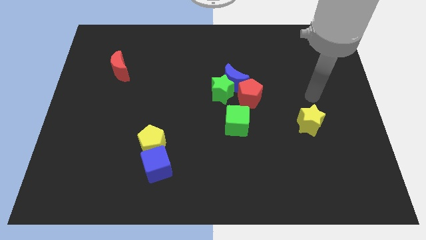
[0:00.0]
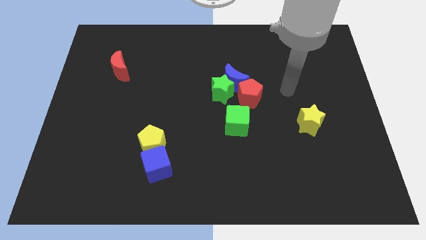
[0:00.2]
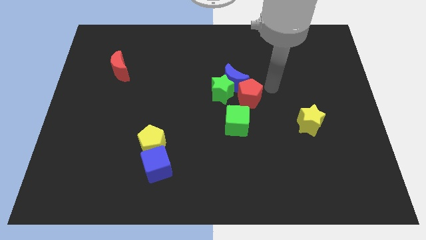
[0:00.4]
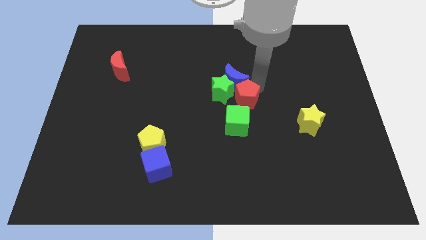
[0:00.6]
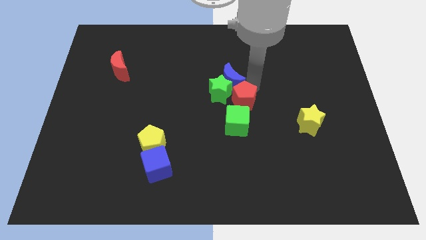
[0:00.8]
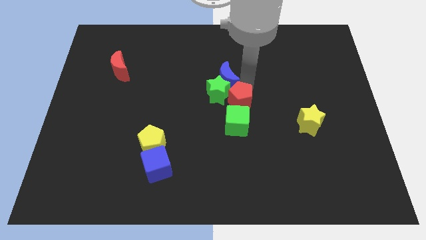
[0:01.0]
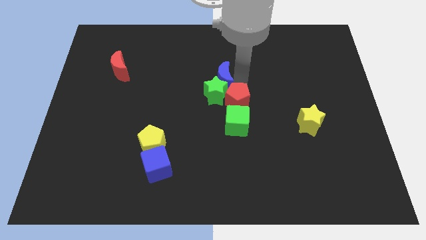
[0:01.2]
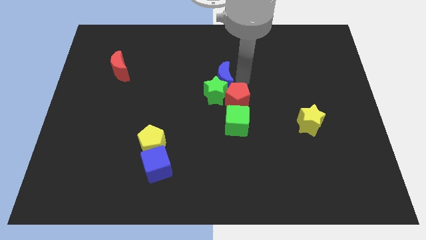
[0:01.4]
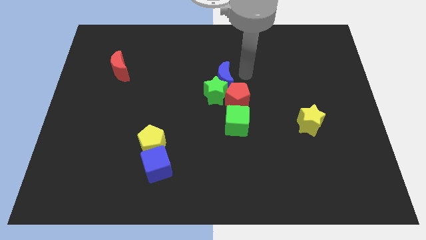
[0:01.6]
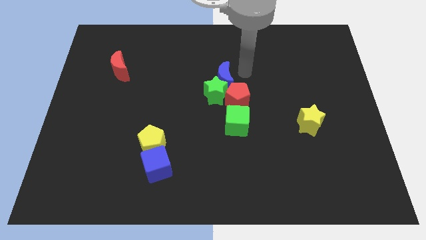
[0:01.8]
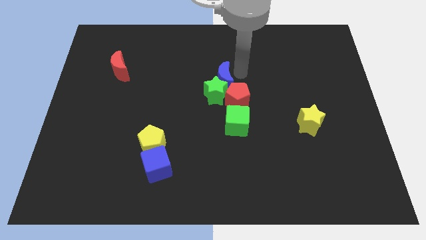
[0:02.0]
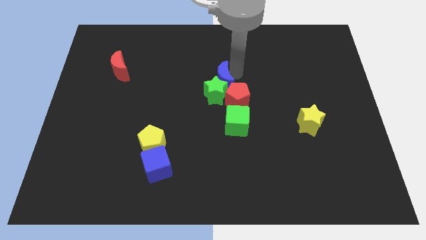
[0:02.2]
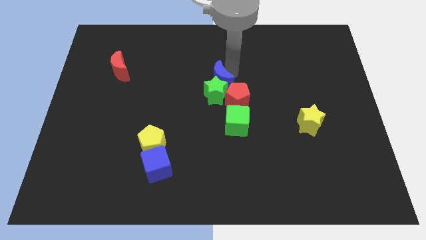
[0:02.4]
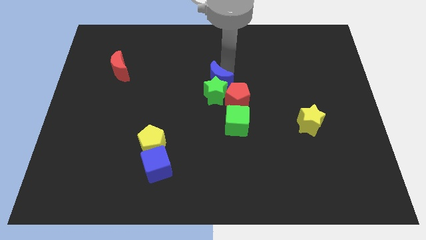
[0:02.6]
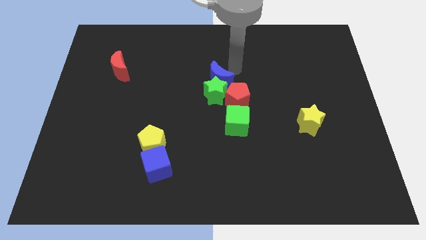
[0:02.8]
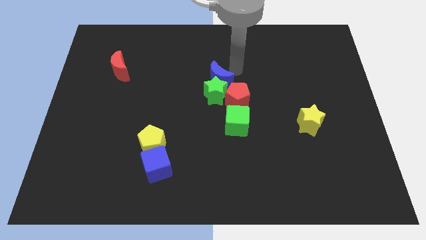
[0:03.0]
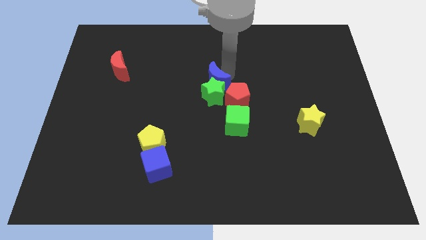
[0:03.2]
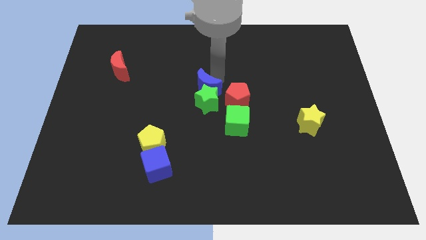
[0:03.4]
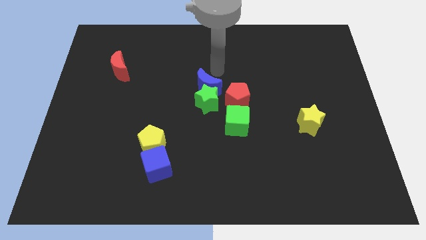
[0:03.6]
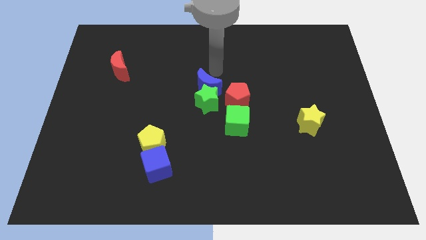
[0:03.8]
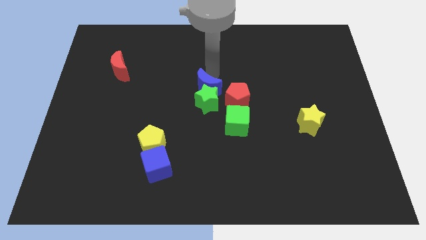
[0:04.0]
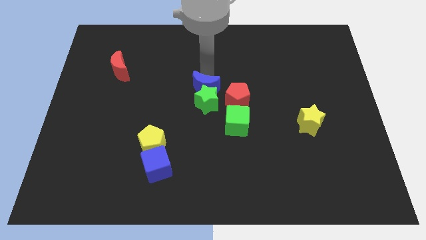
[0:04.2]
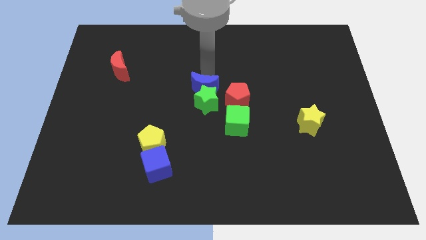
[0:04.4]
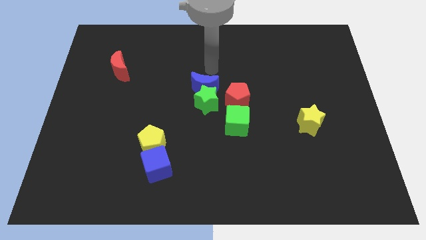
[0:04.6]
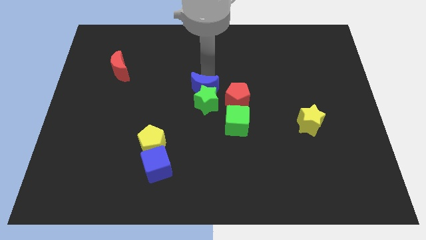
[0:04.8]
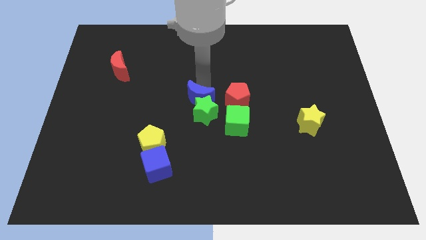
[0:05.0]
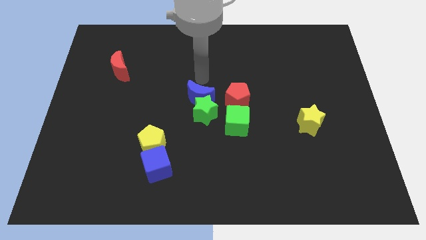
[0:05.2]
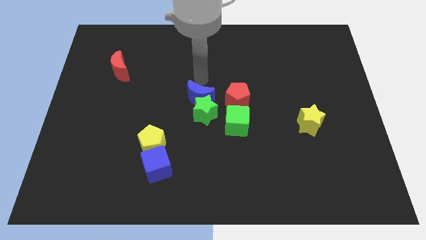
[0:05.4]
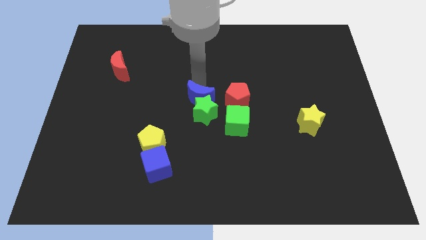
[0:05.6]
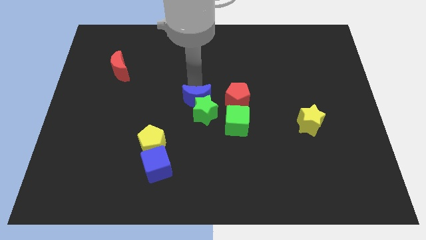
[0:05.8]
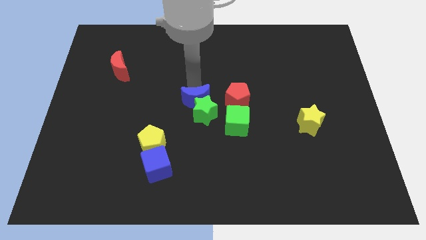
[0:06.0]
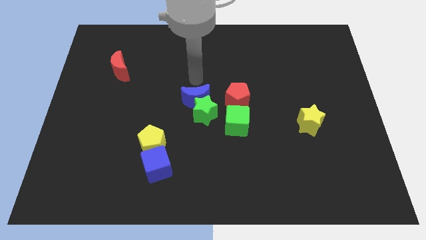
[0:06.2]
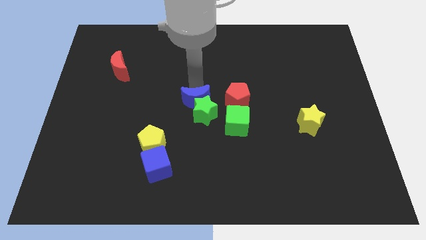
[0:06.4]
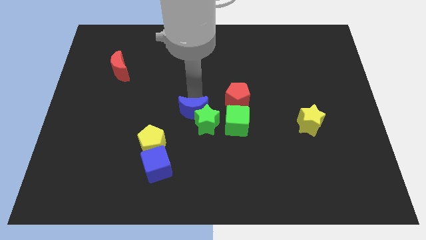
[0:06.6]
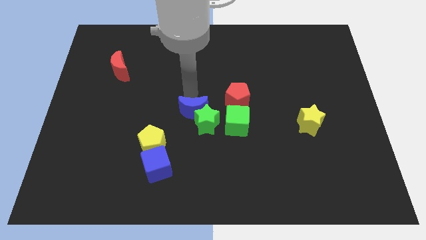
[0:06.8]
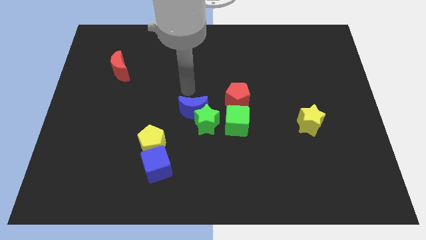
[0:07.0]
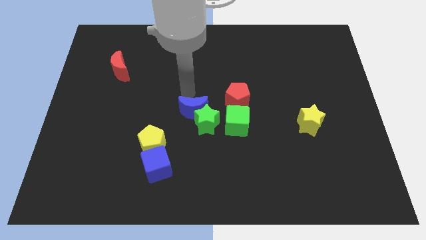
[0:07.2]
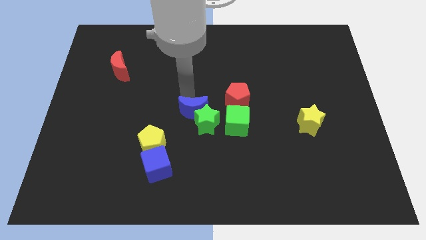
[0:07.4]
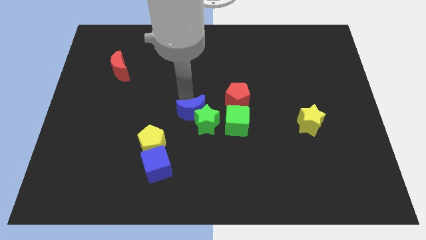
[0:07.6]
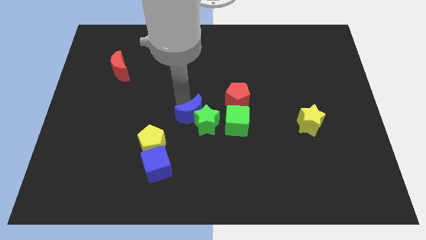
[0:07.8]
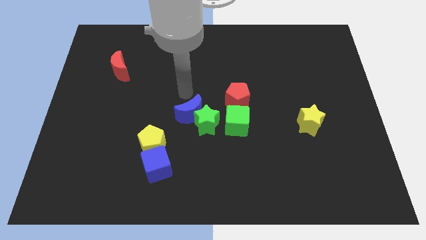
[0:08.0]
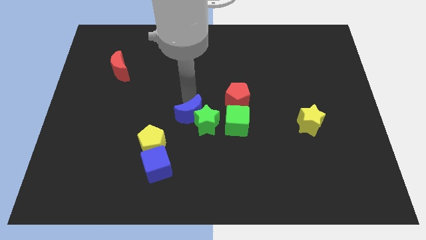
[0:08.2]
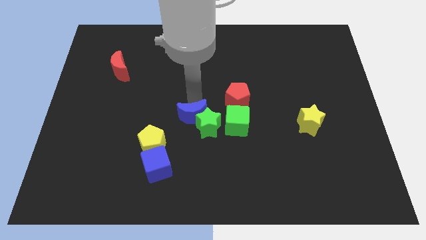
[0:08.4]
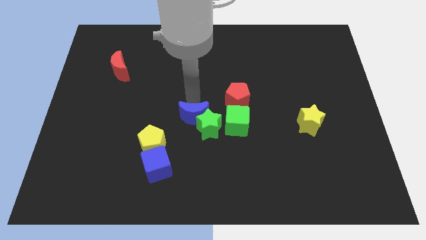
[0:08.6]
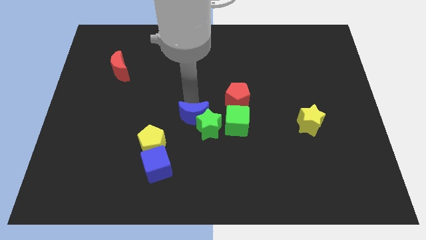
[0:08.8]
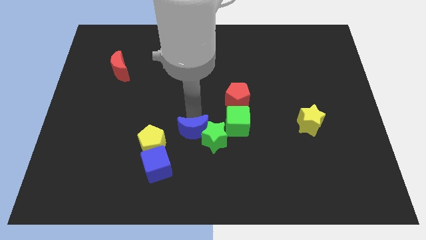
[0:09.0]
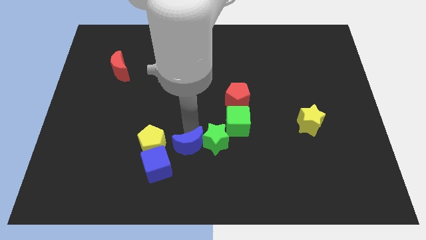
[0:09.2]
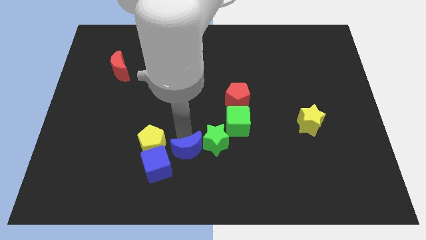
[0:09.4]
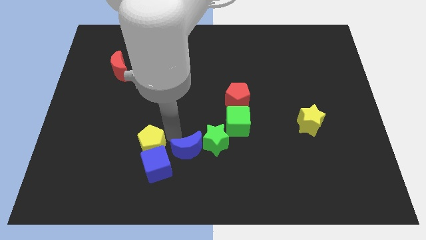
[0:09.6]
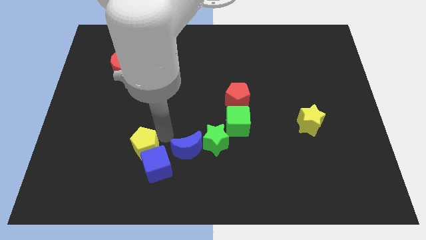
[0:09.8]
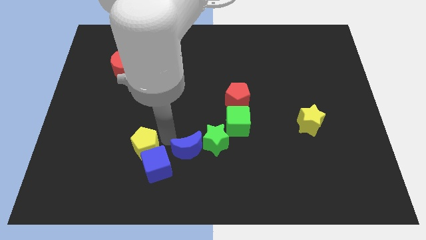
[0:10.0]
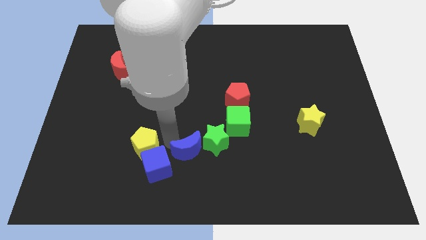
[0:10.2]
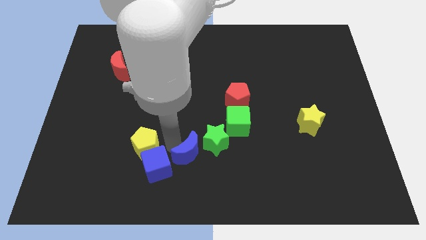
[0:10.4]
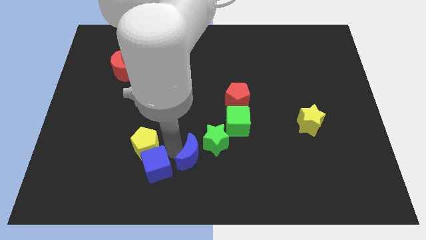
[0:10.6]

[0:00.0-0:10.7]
slide the blue moon to the bottom
